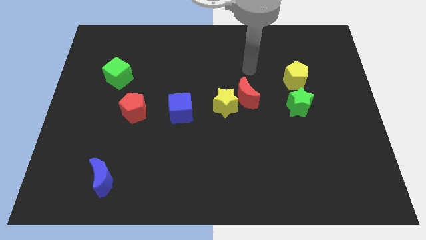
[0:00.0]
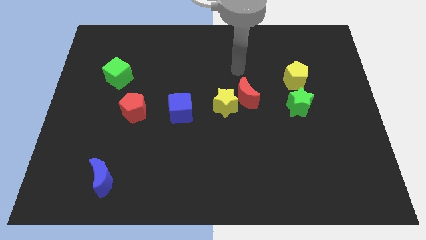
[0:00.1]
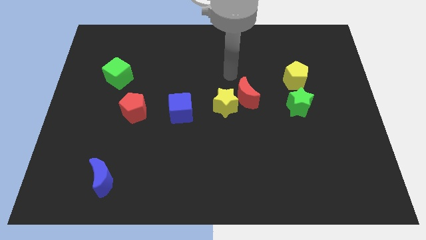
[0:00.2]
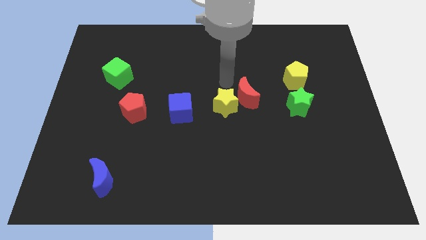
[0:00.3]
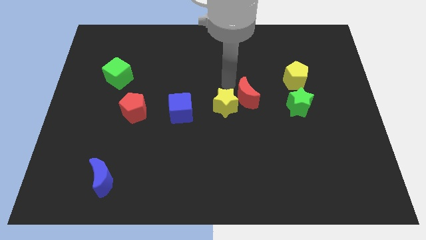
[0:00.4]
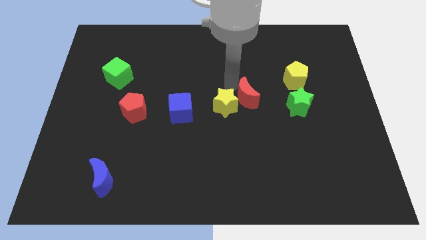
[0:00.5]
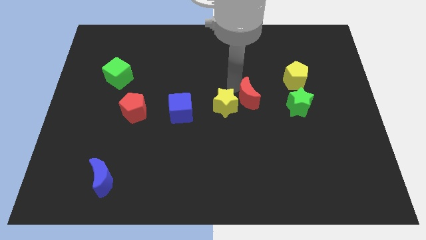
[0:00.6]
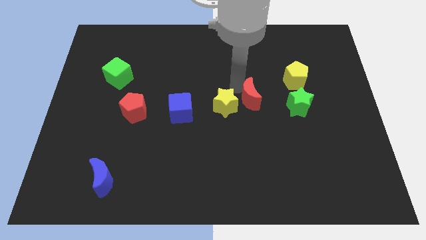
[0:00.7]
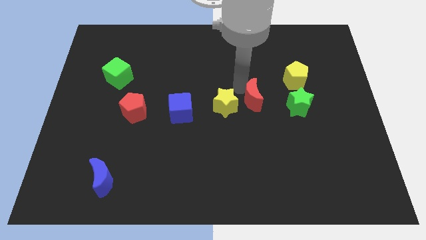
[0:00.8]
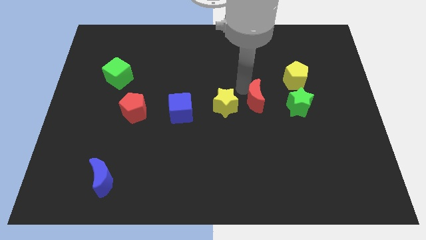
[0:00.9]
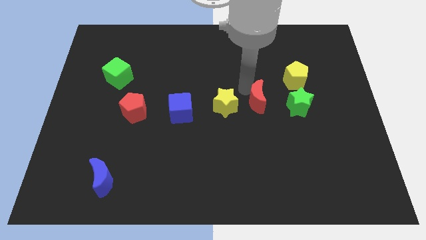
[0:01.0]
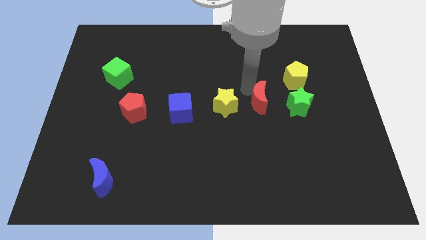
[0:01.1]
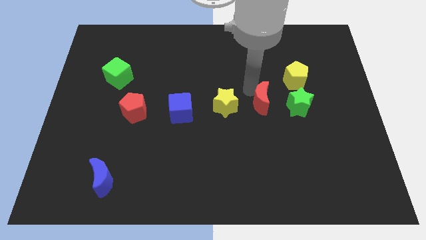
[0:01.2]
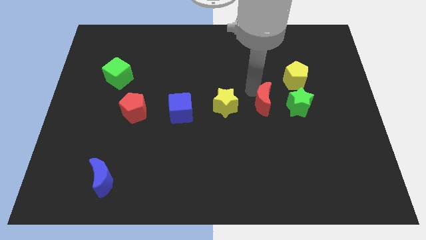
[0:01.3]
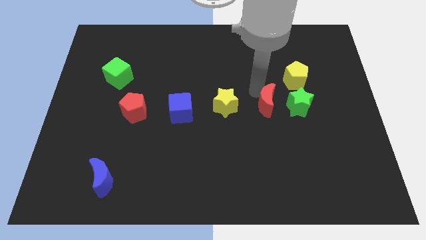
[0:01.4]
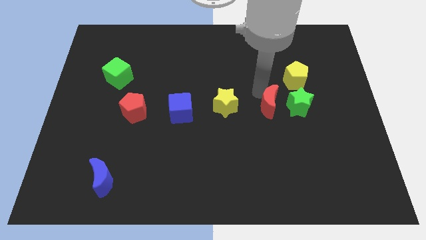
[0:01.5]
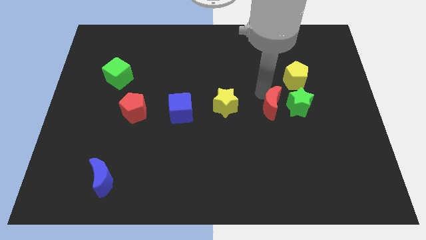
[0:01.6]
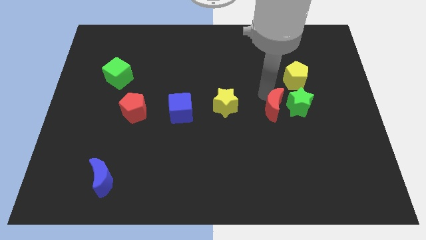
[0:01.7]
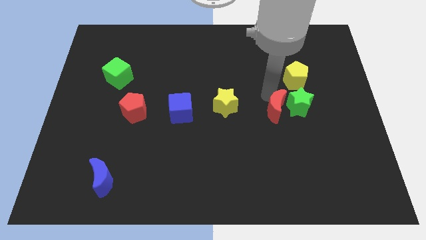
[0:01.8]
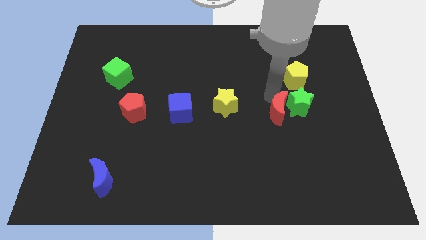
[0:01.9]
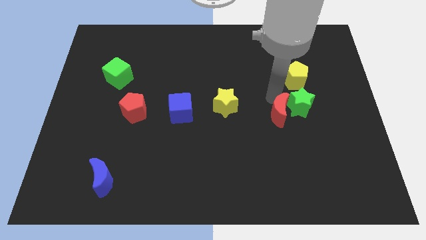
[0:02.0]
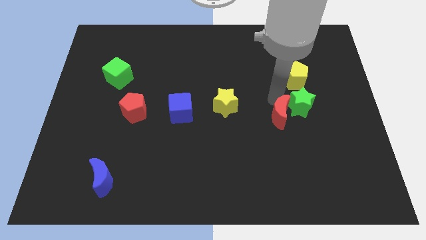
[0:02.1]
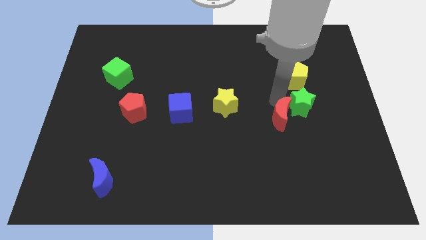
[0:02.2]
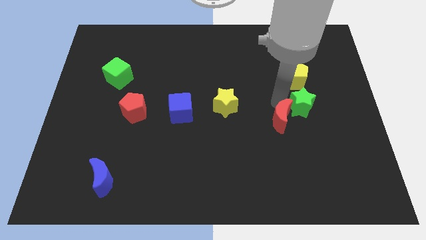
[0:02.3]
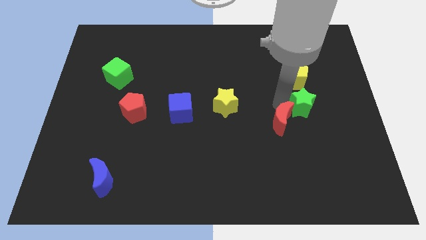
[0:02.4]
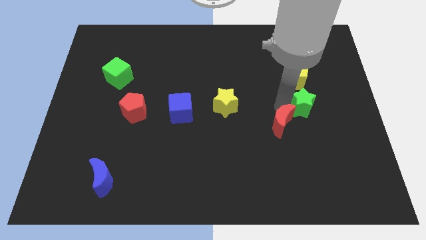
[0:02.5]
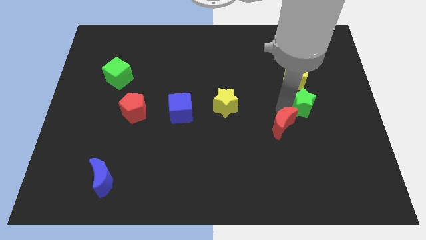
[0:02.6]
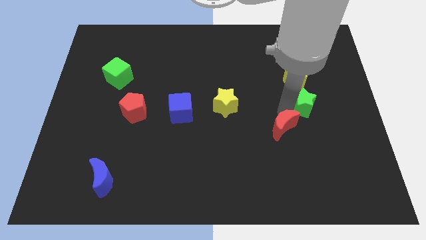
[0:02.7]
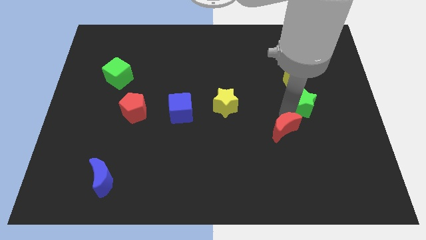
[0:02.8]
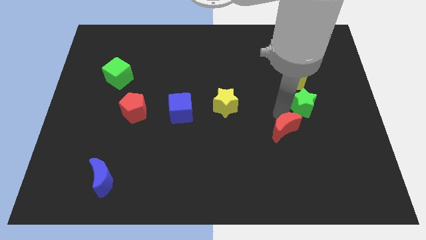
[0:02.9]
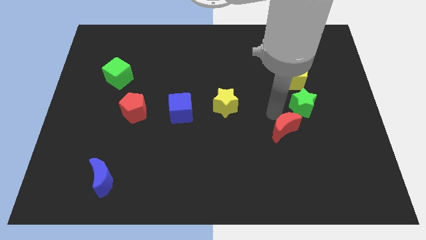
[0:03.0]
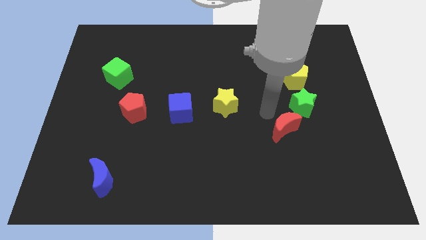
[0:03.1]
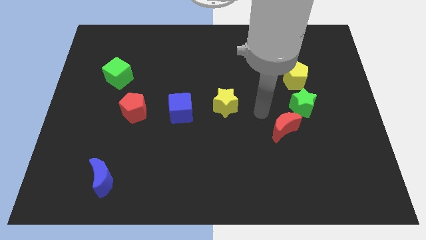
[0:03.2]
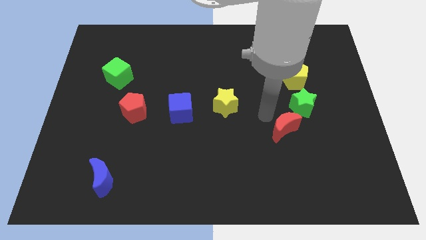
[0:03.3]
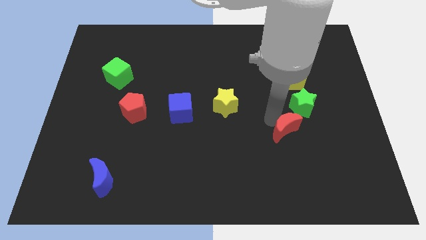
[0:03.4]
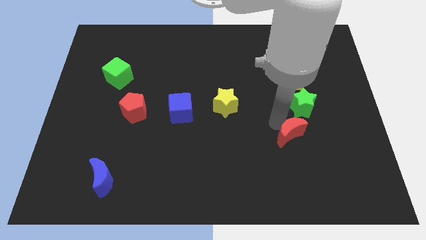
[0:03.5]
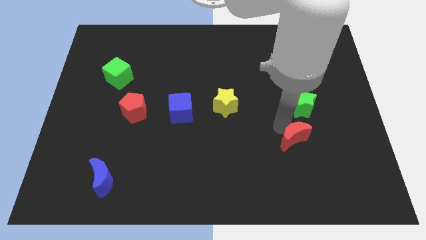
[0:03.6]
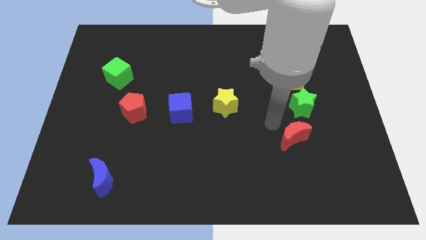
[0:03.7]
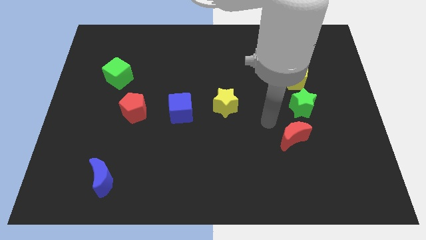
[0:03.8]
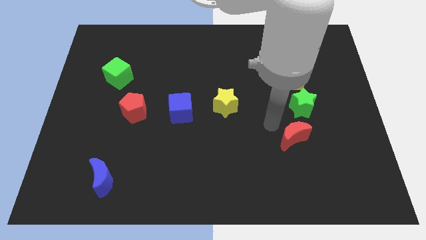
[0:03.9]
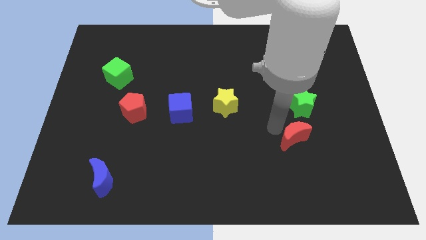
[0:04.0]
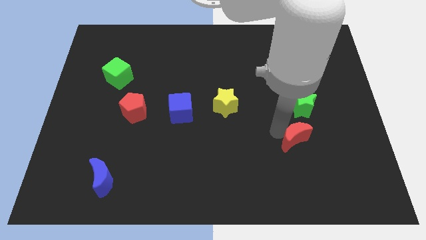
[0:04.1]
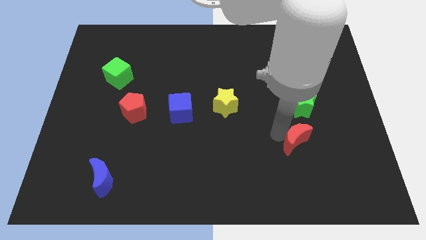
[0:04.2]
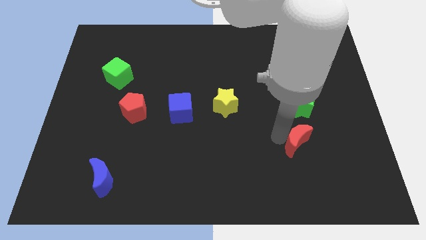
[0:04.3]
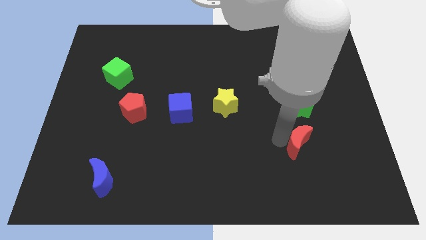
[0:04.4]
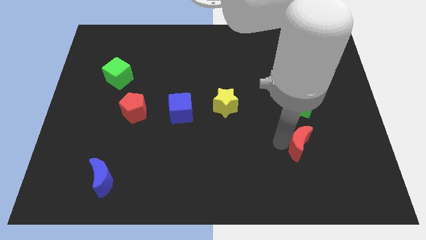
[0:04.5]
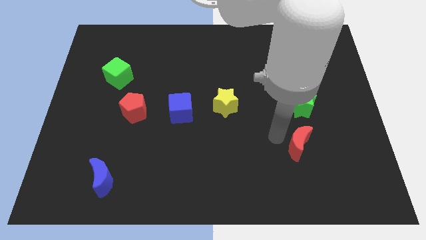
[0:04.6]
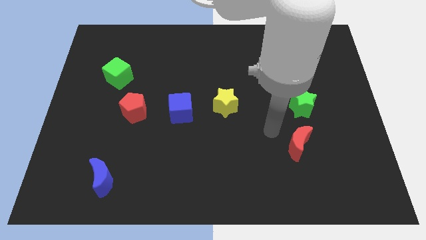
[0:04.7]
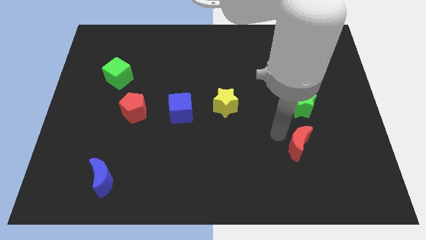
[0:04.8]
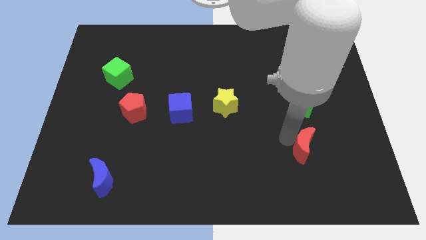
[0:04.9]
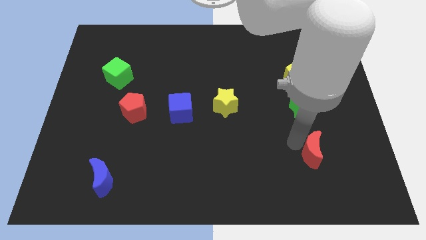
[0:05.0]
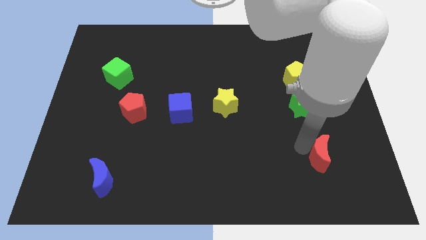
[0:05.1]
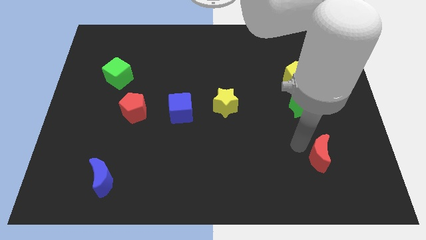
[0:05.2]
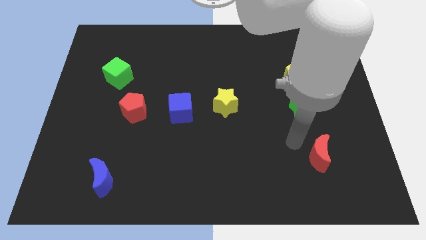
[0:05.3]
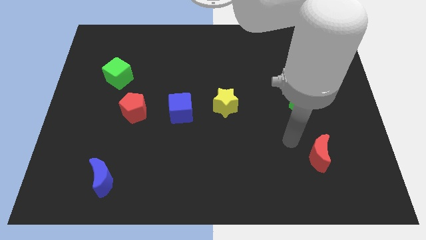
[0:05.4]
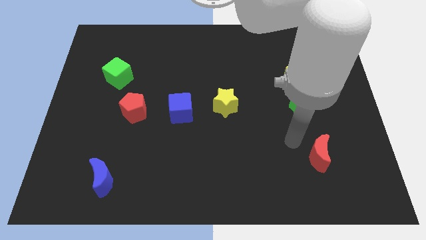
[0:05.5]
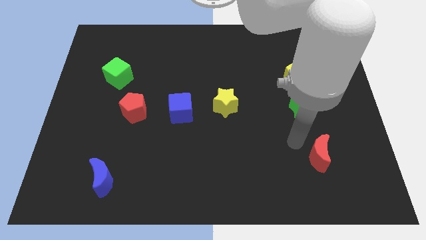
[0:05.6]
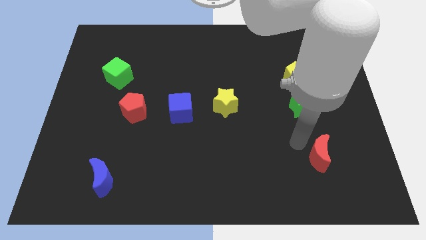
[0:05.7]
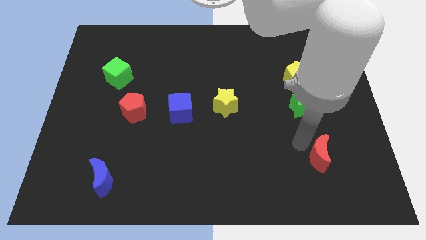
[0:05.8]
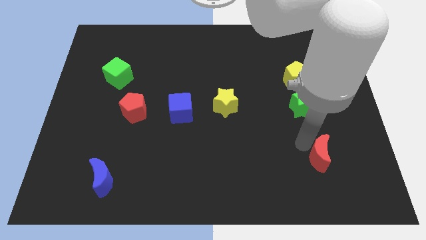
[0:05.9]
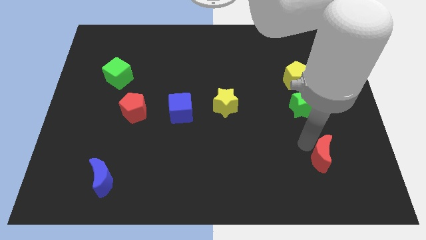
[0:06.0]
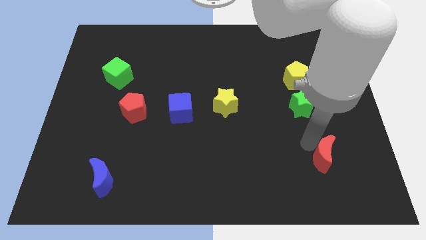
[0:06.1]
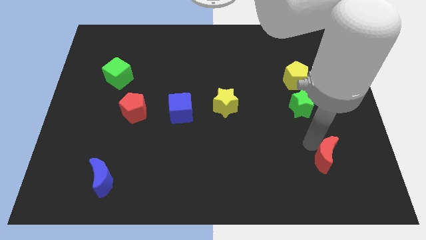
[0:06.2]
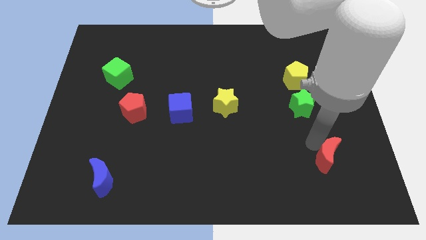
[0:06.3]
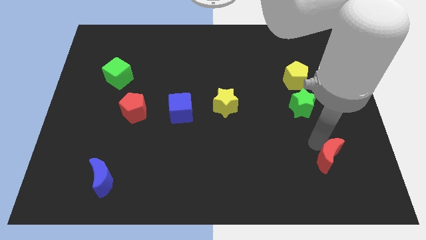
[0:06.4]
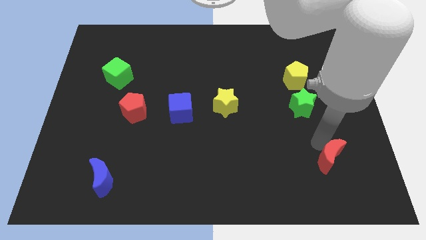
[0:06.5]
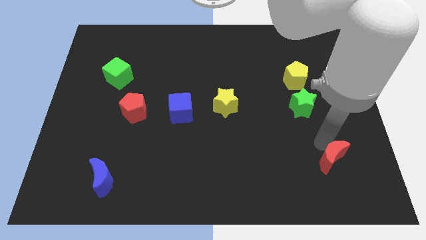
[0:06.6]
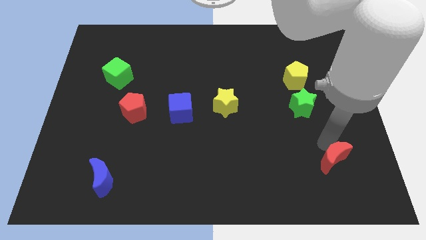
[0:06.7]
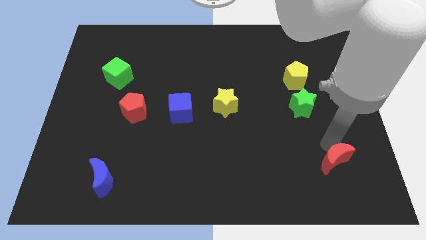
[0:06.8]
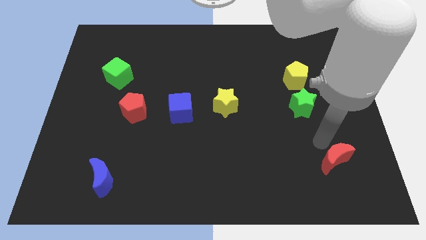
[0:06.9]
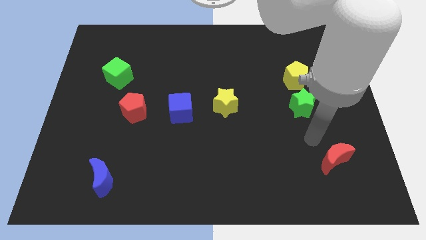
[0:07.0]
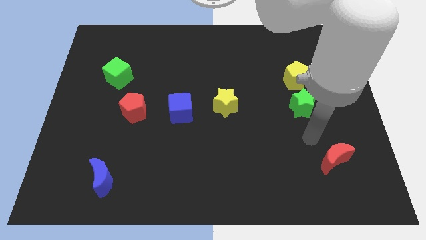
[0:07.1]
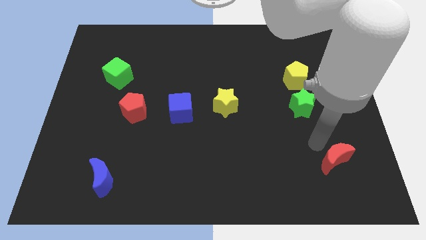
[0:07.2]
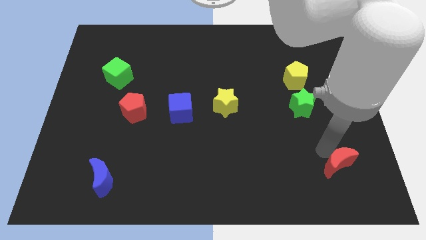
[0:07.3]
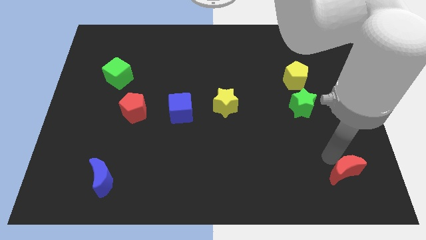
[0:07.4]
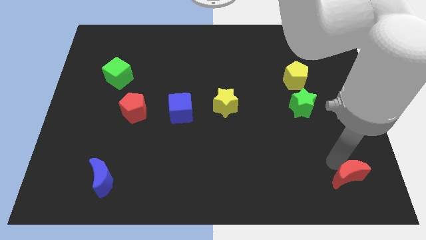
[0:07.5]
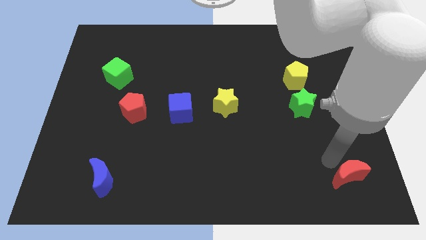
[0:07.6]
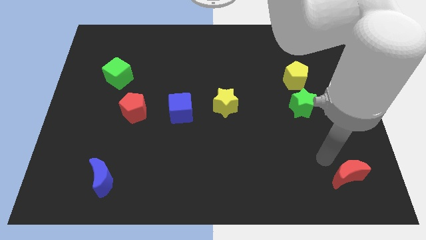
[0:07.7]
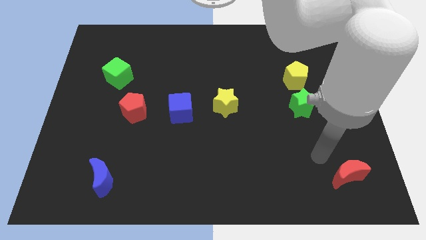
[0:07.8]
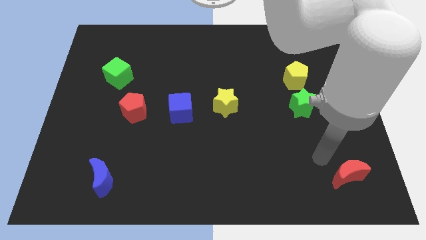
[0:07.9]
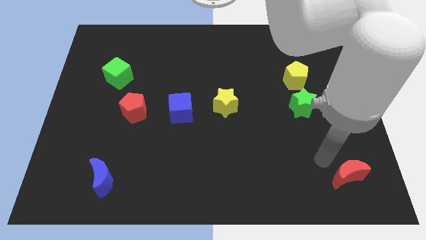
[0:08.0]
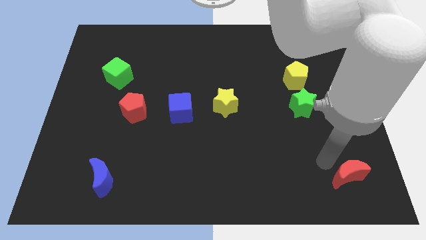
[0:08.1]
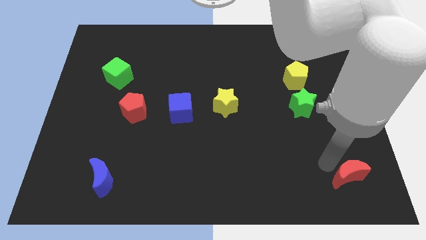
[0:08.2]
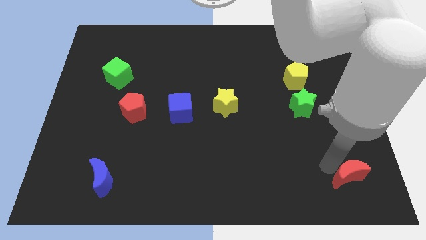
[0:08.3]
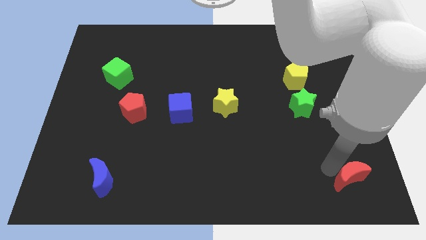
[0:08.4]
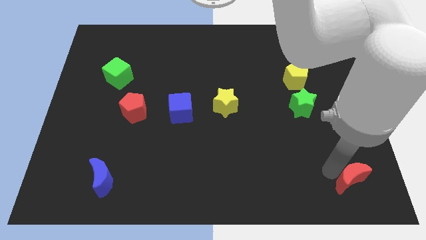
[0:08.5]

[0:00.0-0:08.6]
move the red moon to the bottom right of the board
